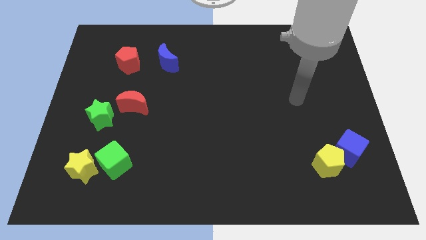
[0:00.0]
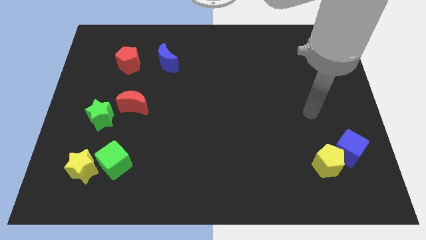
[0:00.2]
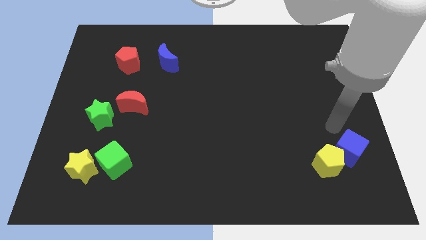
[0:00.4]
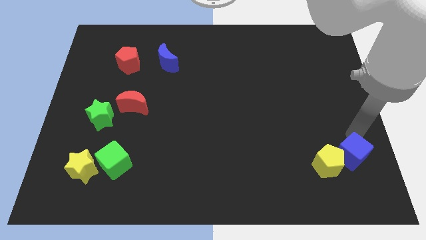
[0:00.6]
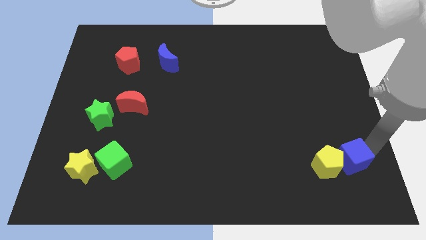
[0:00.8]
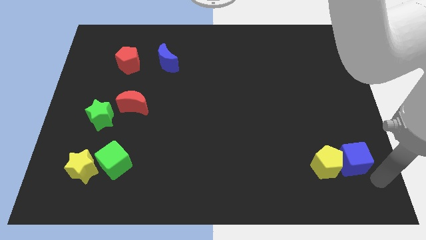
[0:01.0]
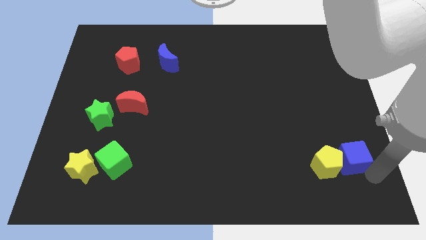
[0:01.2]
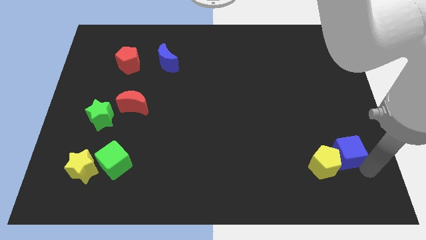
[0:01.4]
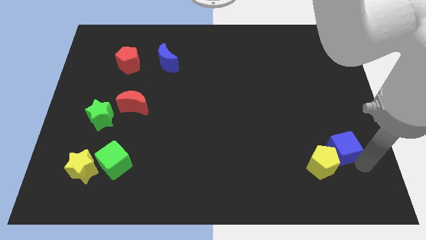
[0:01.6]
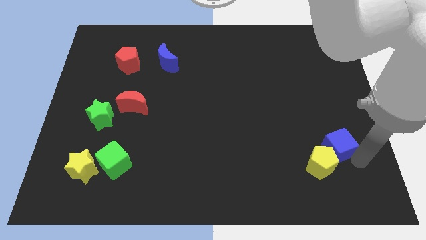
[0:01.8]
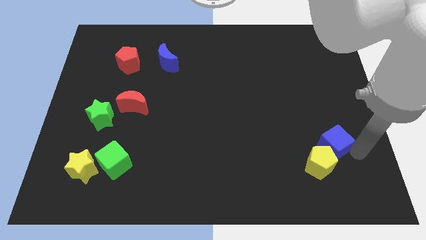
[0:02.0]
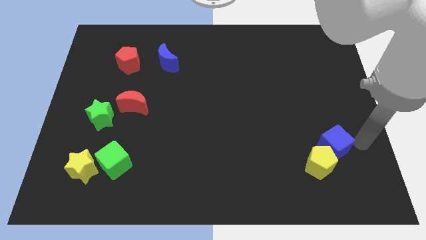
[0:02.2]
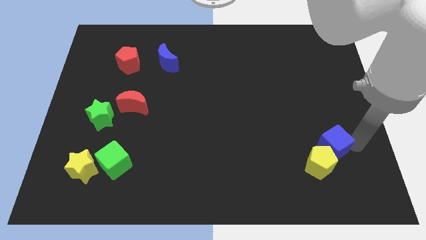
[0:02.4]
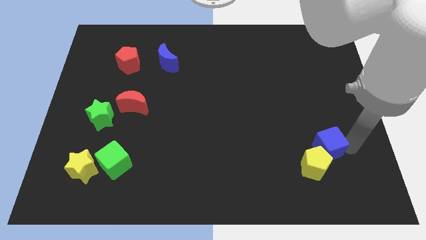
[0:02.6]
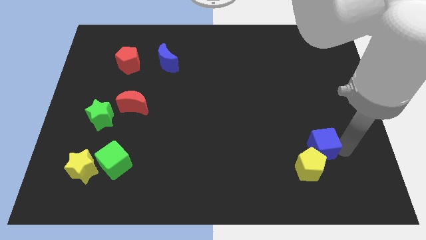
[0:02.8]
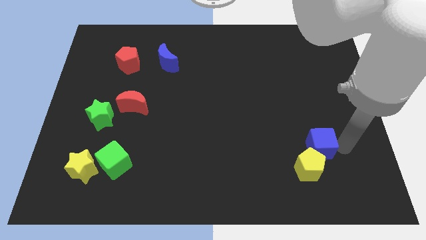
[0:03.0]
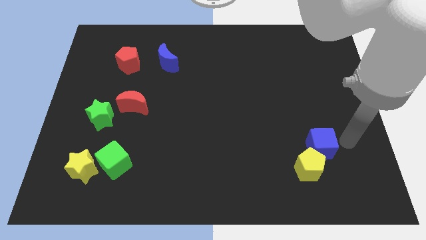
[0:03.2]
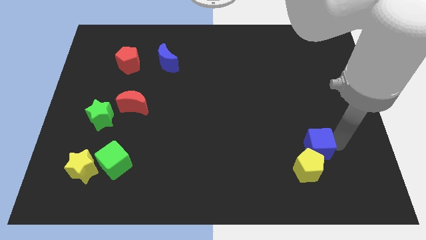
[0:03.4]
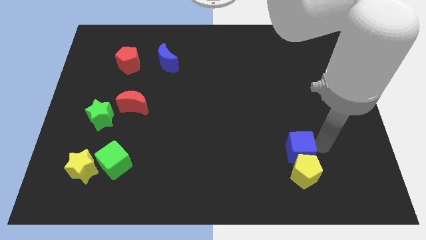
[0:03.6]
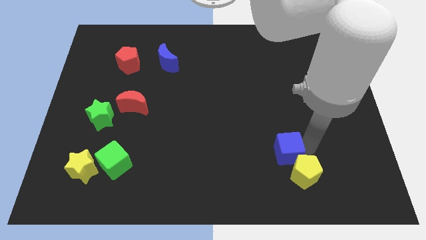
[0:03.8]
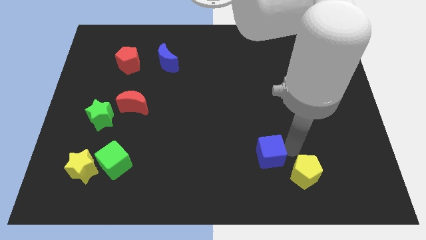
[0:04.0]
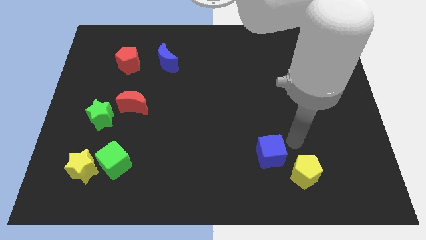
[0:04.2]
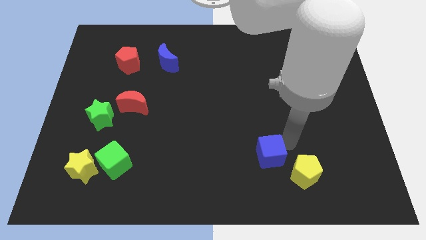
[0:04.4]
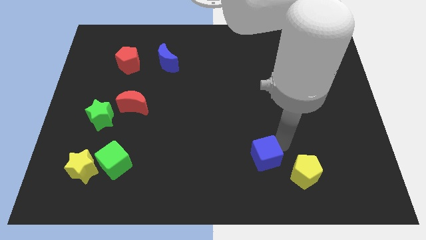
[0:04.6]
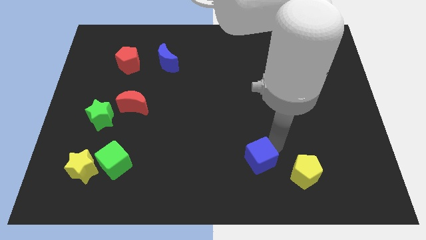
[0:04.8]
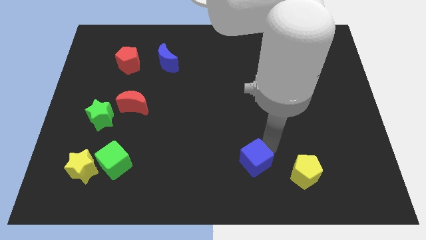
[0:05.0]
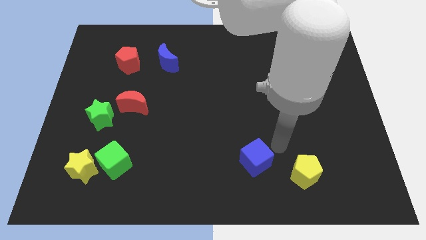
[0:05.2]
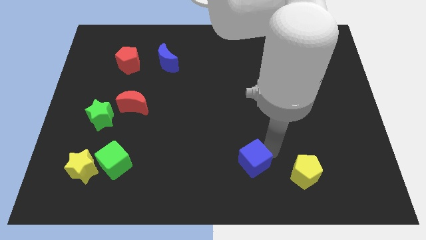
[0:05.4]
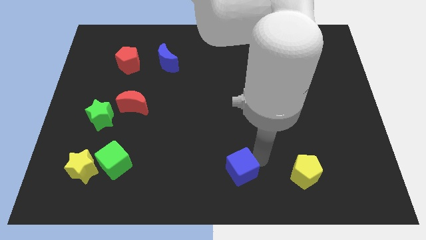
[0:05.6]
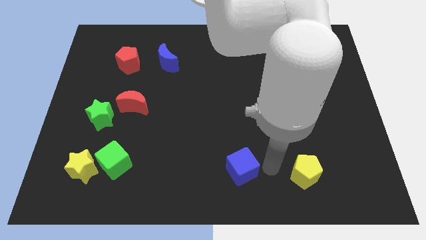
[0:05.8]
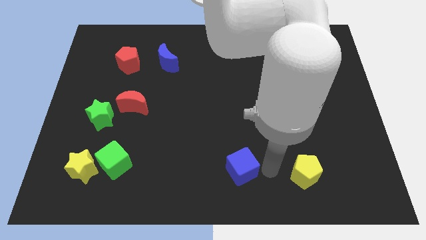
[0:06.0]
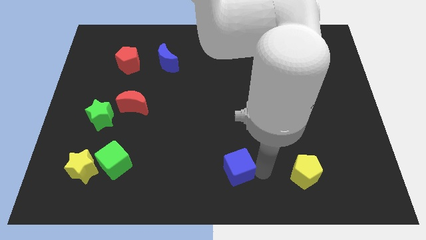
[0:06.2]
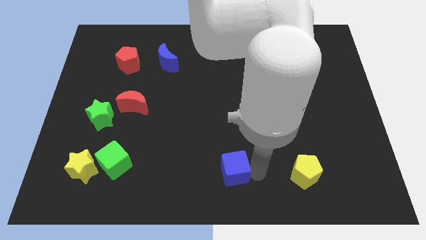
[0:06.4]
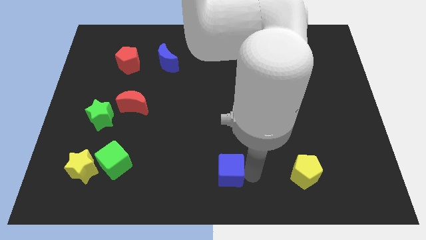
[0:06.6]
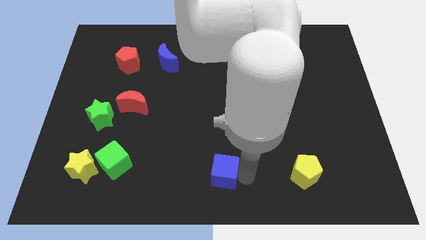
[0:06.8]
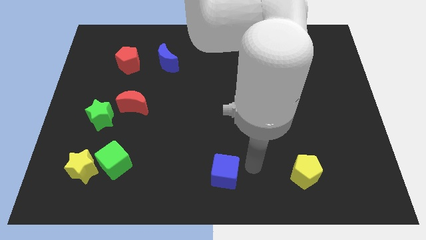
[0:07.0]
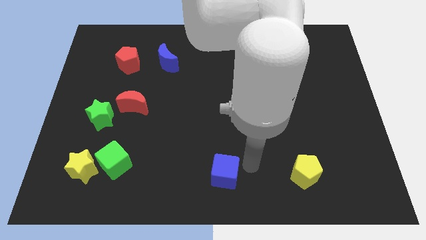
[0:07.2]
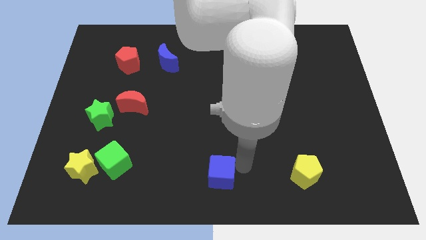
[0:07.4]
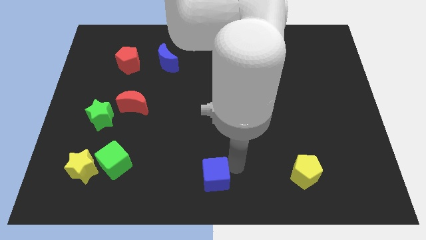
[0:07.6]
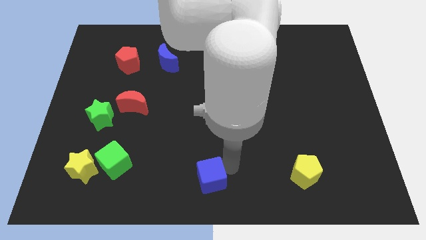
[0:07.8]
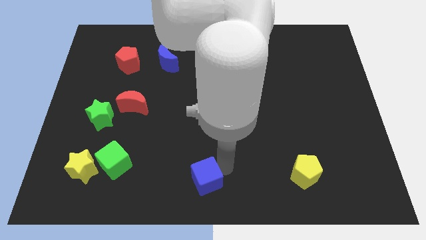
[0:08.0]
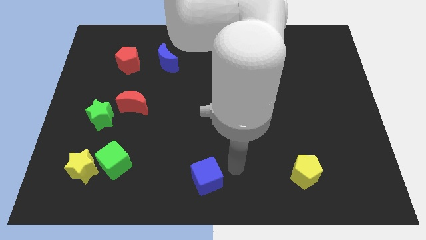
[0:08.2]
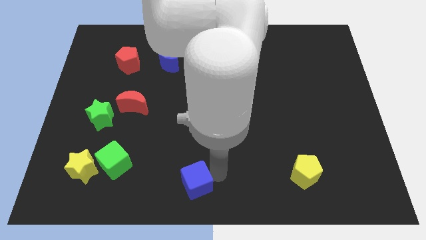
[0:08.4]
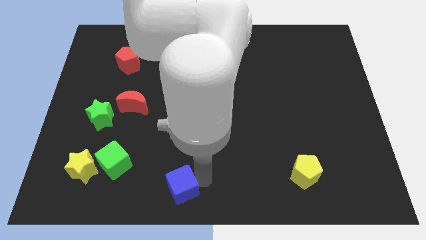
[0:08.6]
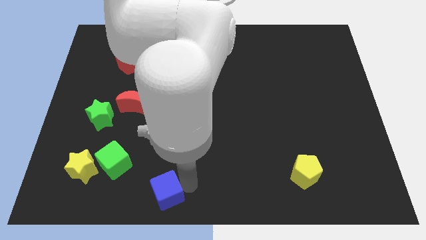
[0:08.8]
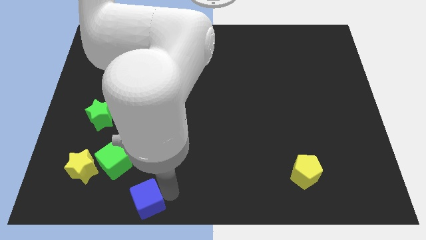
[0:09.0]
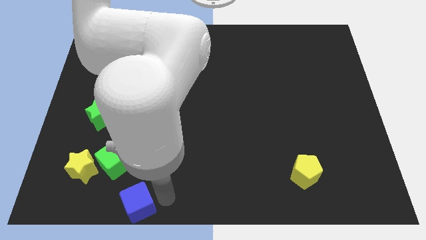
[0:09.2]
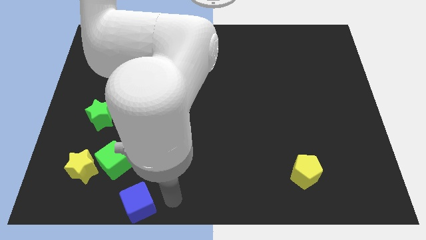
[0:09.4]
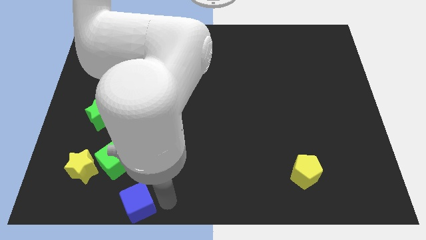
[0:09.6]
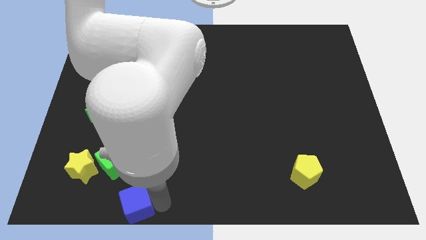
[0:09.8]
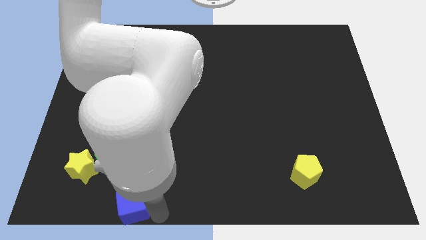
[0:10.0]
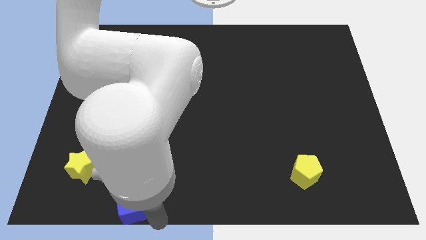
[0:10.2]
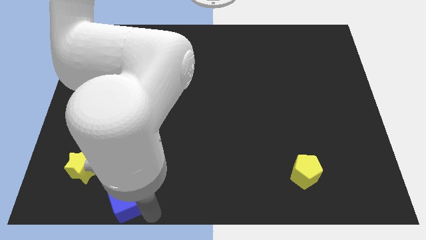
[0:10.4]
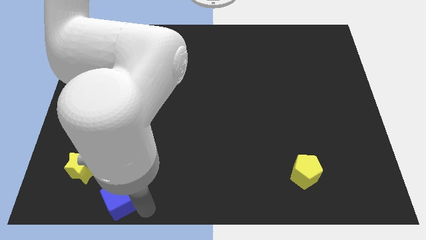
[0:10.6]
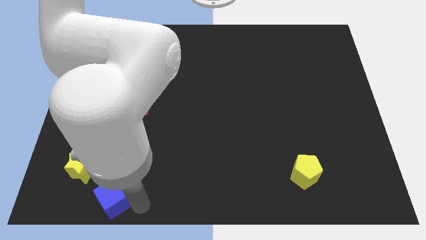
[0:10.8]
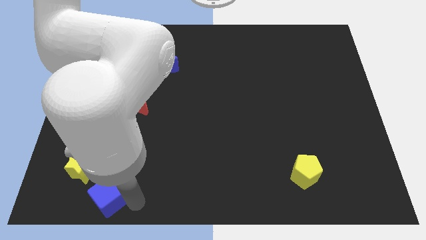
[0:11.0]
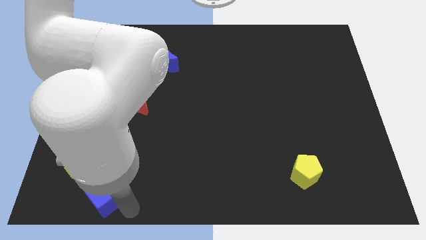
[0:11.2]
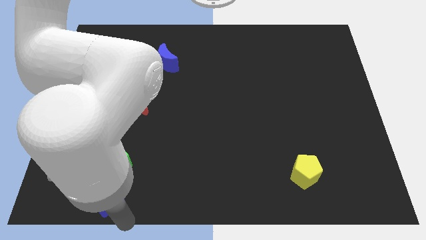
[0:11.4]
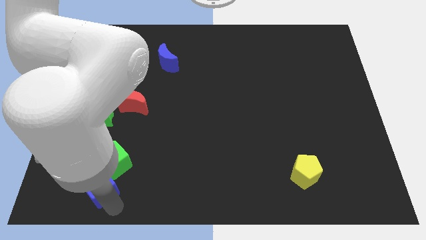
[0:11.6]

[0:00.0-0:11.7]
push the blue cube towards the yellow star
